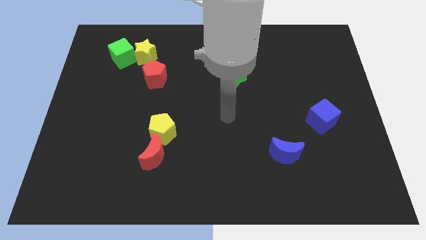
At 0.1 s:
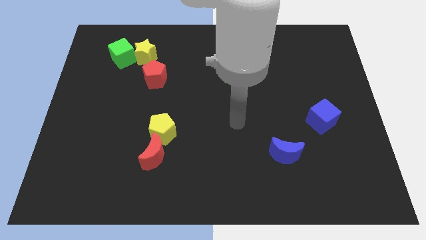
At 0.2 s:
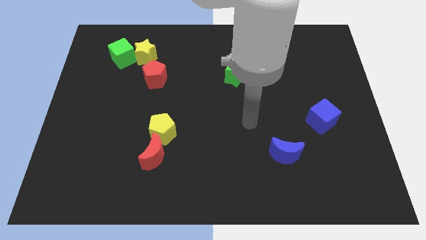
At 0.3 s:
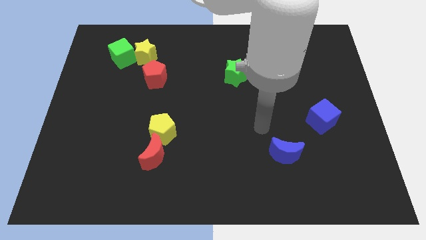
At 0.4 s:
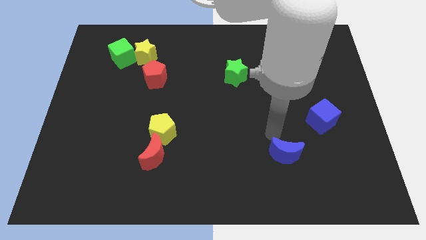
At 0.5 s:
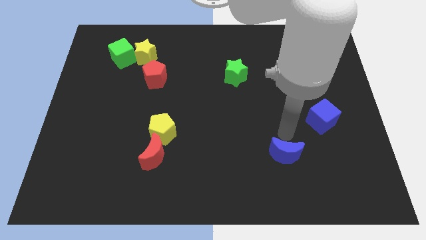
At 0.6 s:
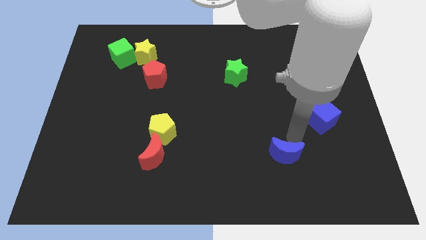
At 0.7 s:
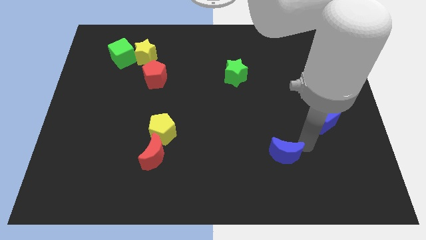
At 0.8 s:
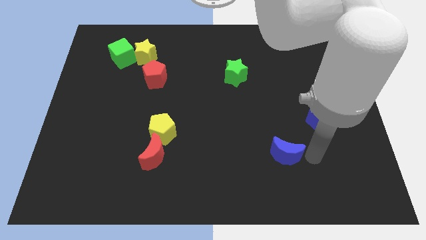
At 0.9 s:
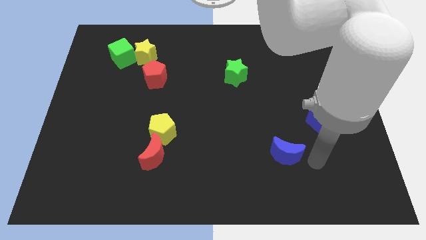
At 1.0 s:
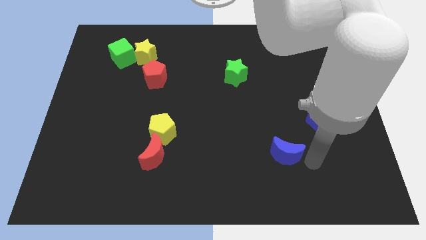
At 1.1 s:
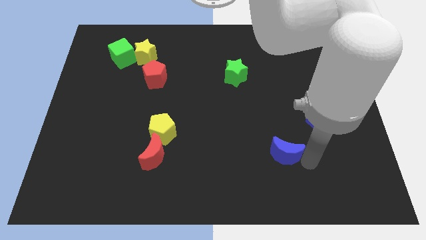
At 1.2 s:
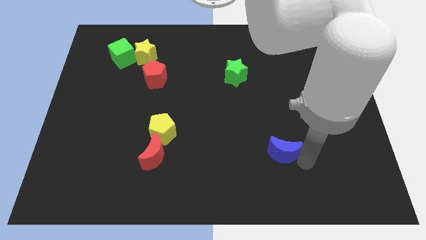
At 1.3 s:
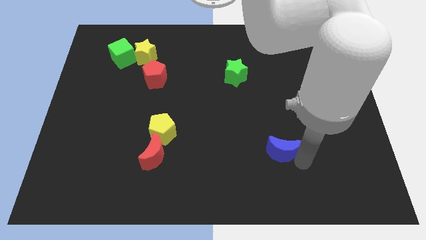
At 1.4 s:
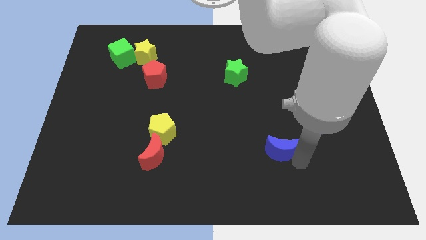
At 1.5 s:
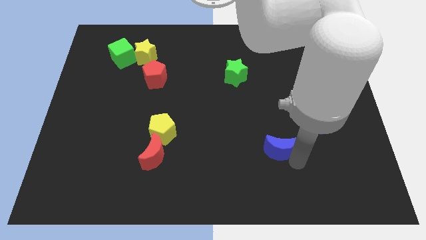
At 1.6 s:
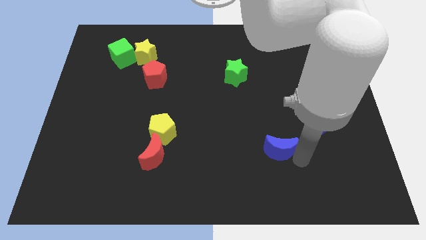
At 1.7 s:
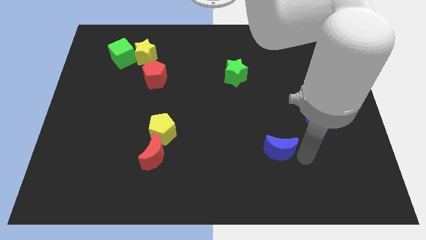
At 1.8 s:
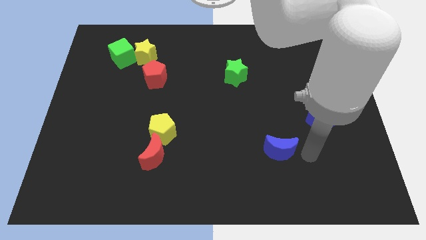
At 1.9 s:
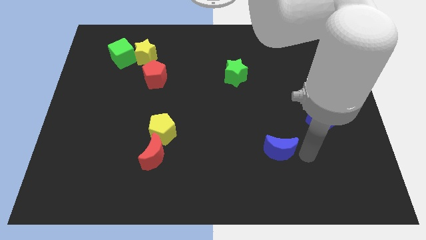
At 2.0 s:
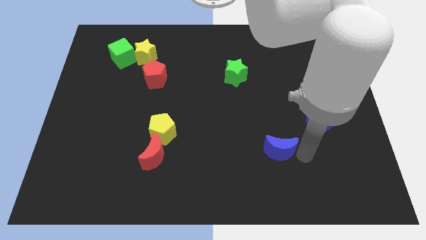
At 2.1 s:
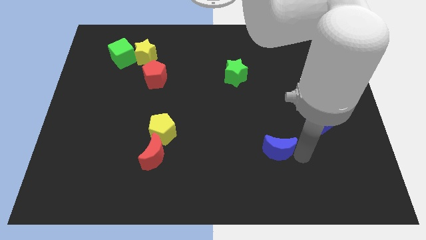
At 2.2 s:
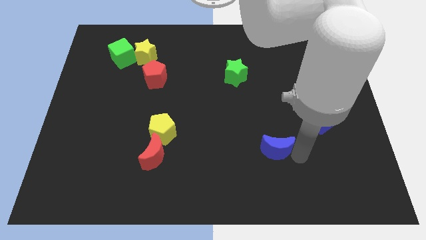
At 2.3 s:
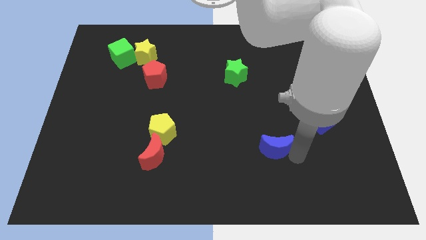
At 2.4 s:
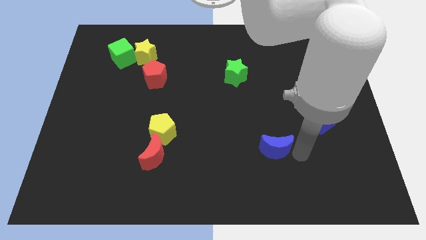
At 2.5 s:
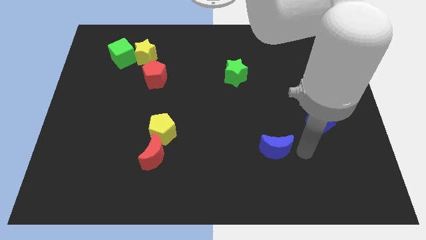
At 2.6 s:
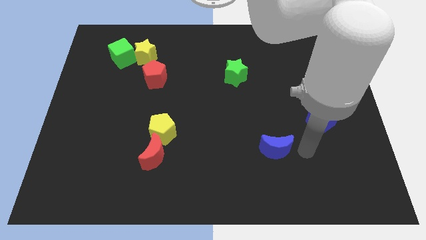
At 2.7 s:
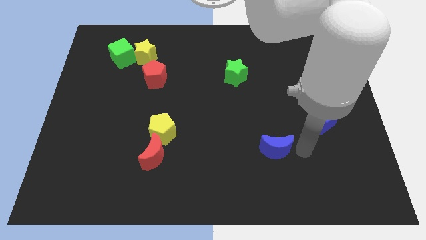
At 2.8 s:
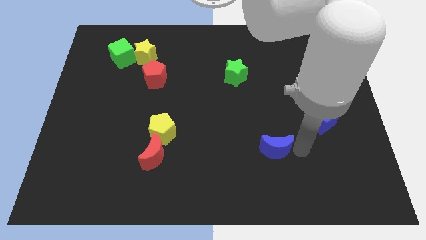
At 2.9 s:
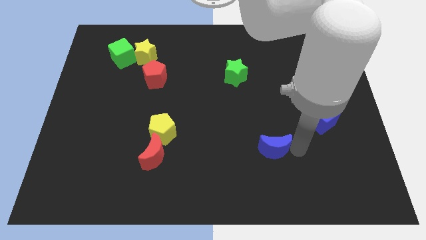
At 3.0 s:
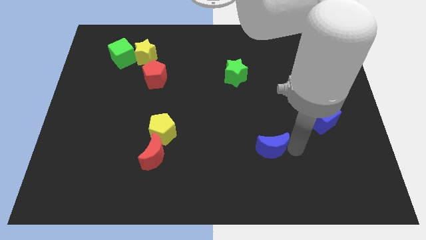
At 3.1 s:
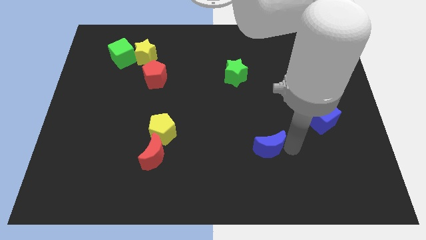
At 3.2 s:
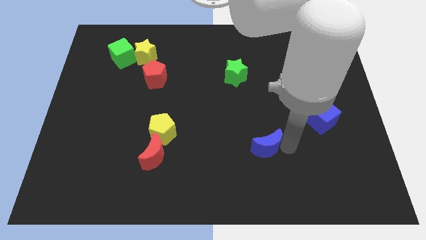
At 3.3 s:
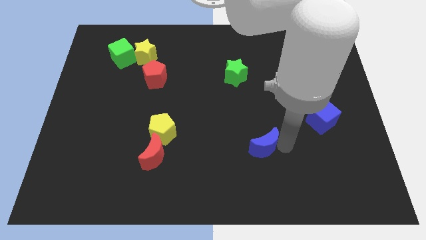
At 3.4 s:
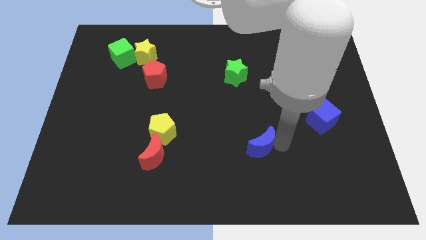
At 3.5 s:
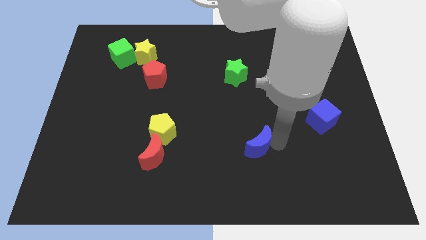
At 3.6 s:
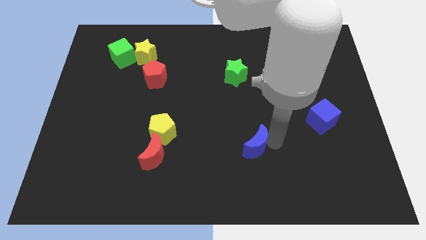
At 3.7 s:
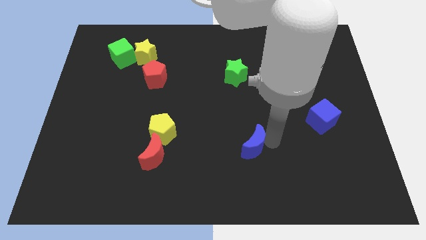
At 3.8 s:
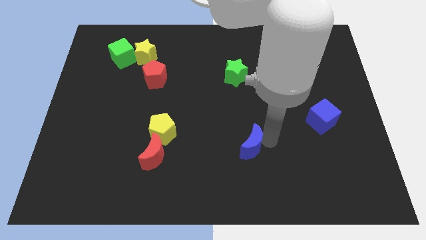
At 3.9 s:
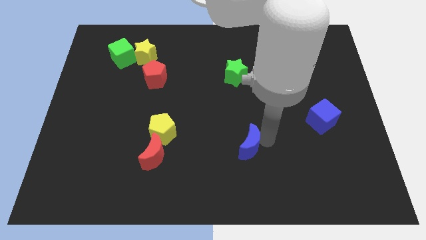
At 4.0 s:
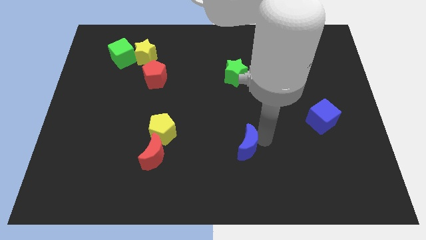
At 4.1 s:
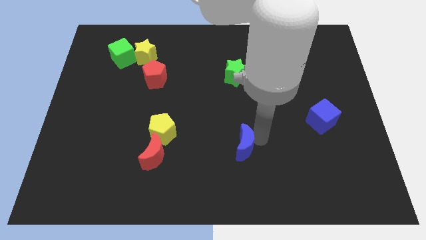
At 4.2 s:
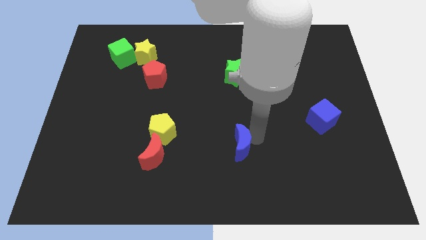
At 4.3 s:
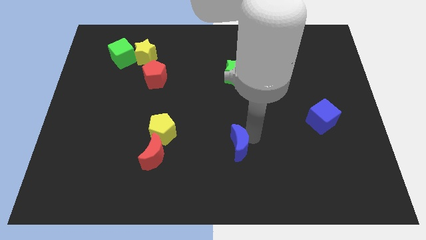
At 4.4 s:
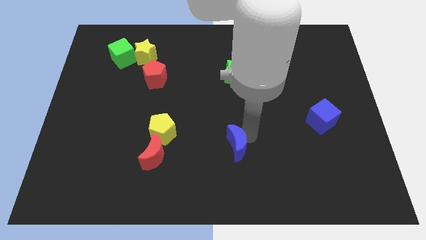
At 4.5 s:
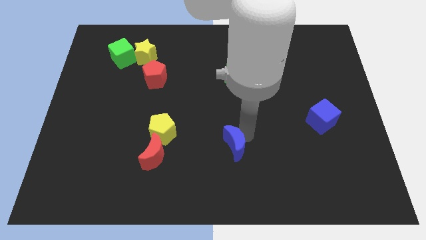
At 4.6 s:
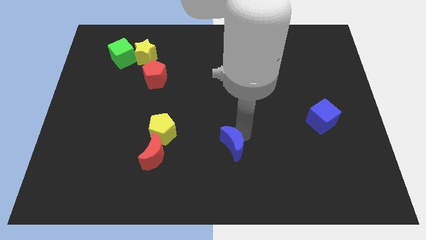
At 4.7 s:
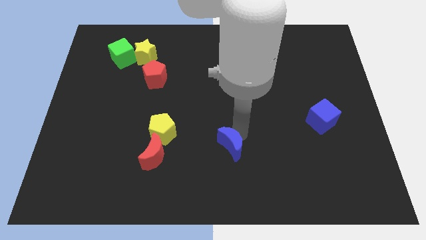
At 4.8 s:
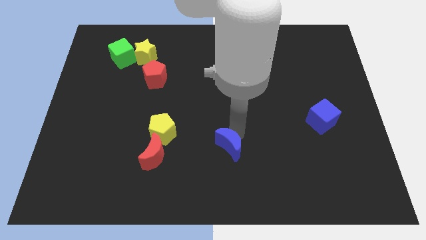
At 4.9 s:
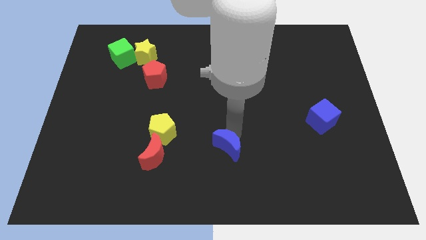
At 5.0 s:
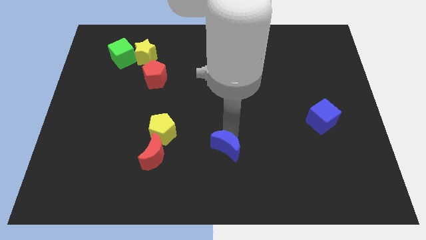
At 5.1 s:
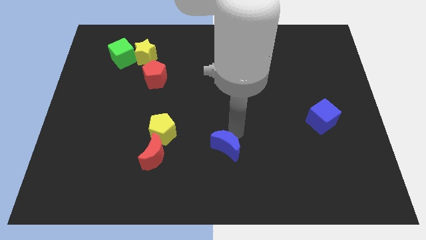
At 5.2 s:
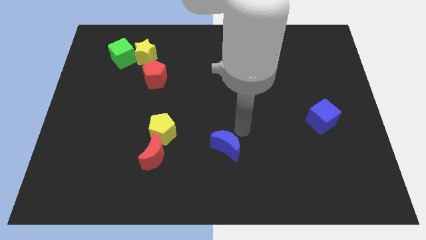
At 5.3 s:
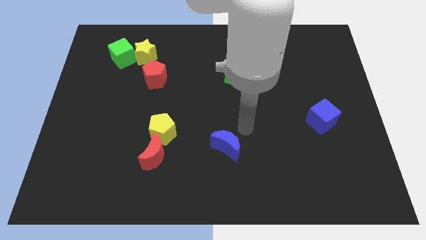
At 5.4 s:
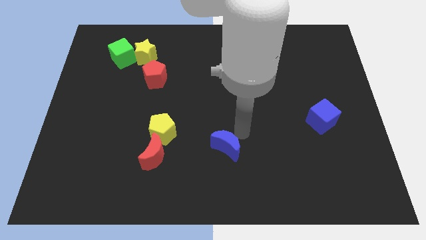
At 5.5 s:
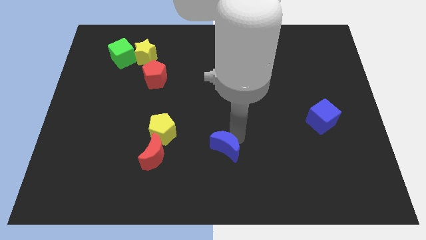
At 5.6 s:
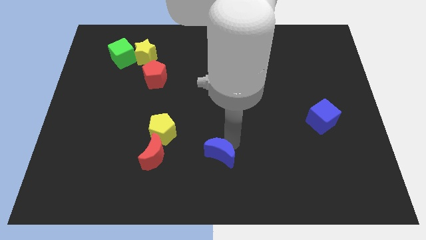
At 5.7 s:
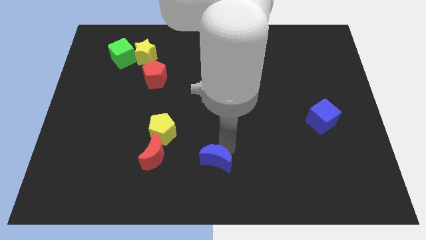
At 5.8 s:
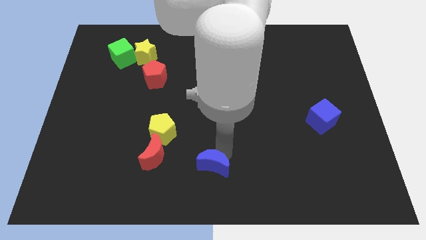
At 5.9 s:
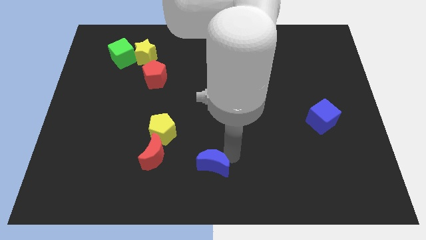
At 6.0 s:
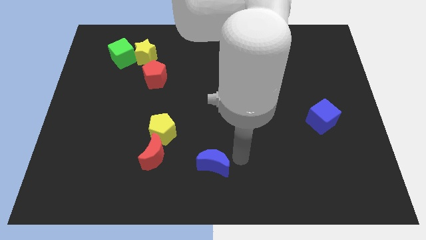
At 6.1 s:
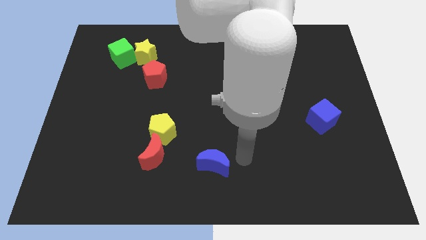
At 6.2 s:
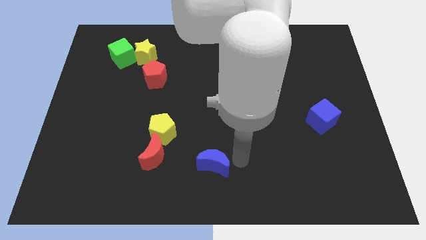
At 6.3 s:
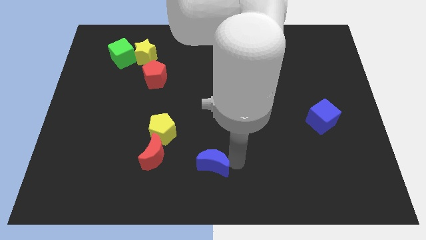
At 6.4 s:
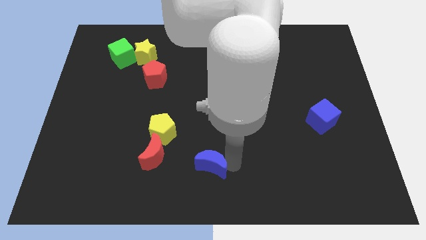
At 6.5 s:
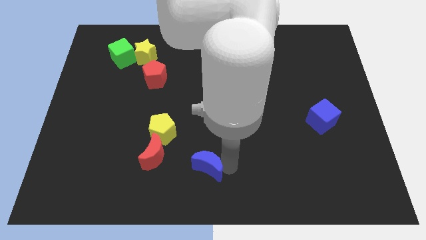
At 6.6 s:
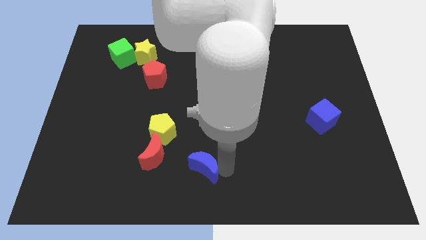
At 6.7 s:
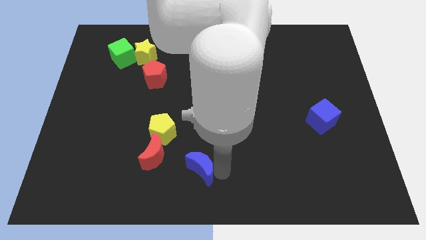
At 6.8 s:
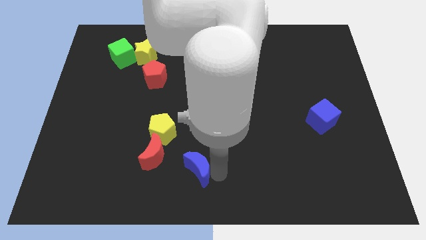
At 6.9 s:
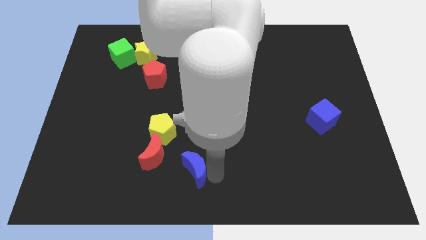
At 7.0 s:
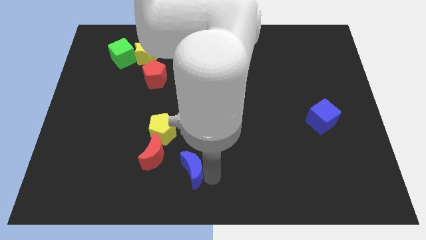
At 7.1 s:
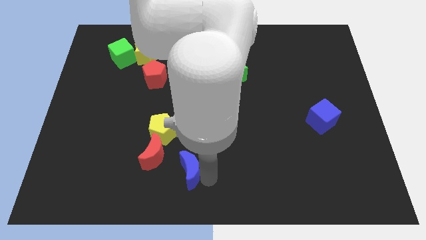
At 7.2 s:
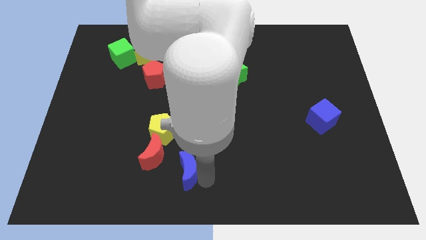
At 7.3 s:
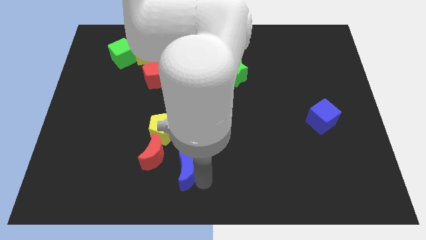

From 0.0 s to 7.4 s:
push the blue moon to the left

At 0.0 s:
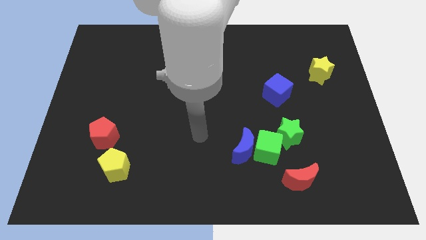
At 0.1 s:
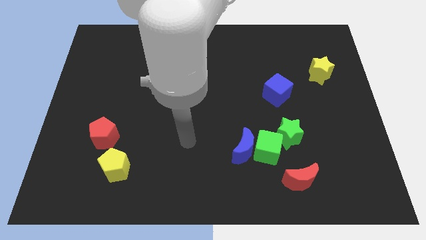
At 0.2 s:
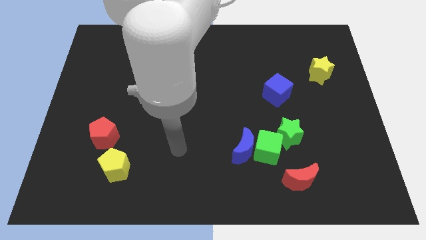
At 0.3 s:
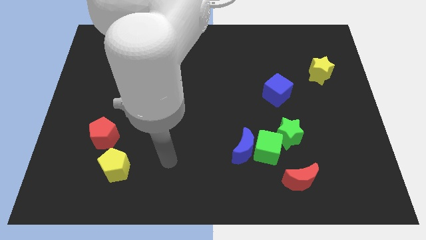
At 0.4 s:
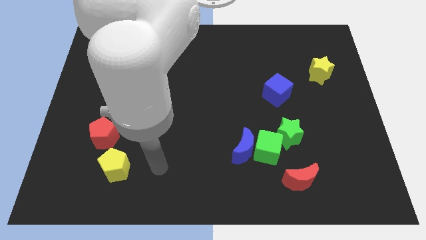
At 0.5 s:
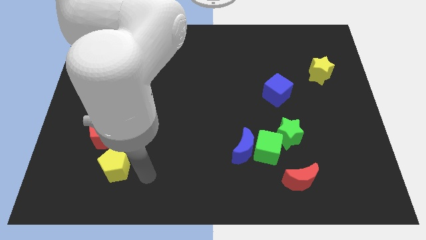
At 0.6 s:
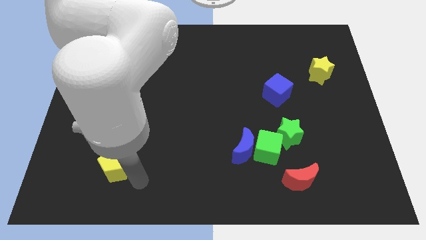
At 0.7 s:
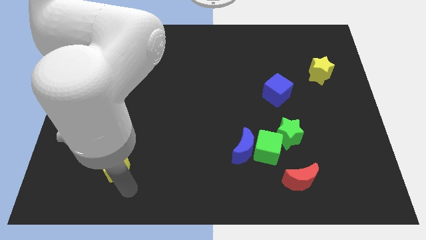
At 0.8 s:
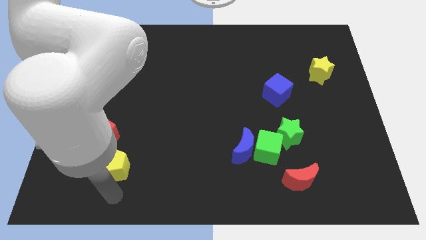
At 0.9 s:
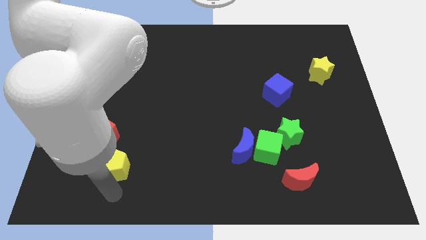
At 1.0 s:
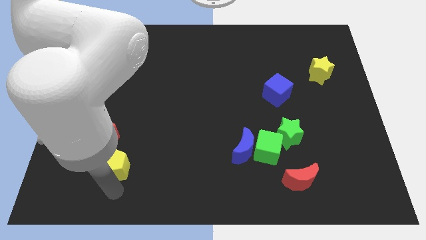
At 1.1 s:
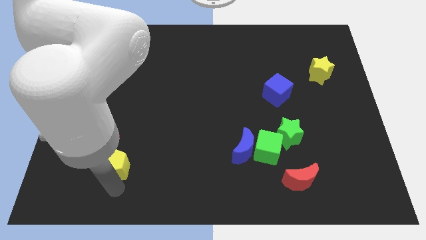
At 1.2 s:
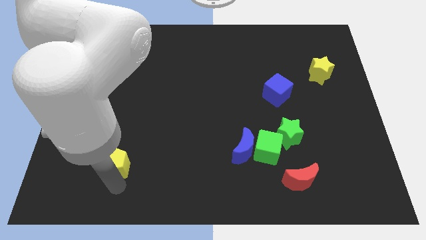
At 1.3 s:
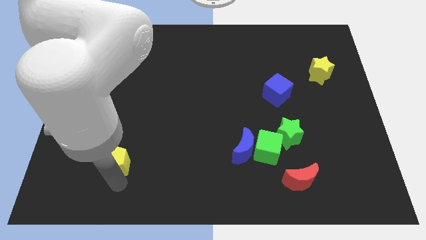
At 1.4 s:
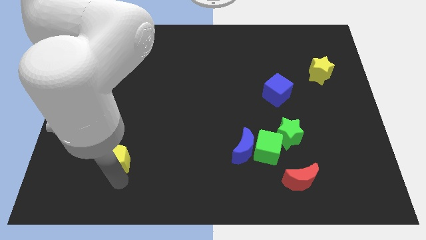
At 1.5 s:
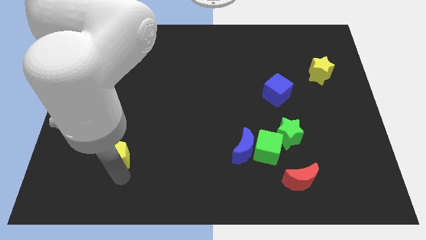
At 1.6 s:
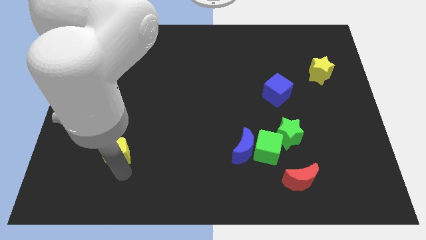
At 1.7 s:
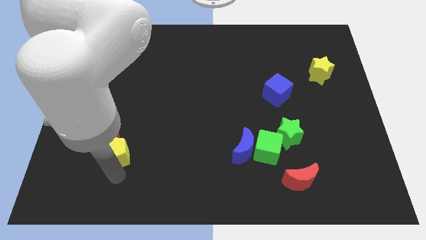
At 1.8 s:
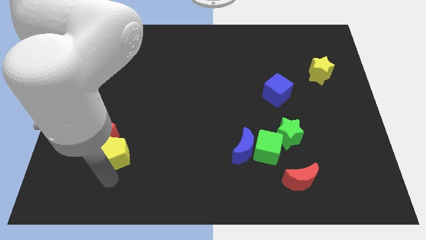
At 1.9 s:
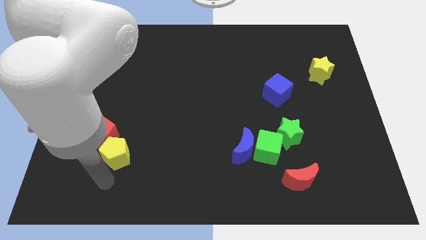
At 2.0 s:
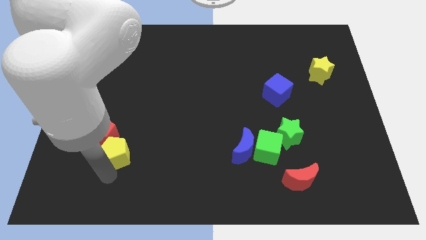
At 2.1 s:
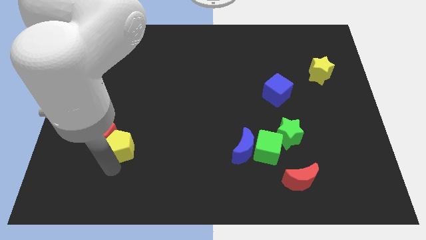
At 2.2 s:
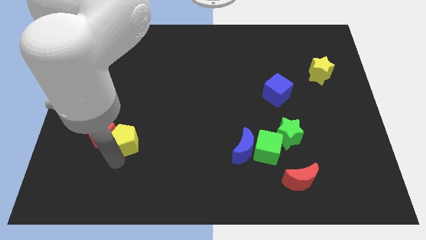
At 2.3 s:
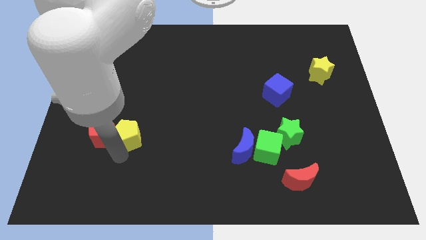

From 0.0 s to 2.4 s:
move the yellow pentagon up a little
